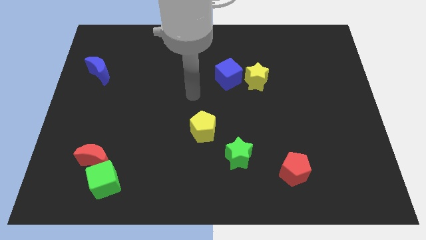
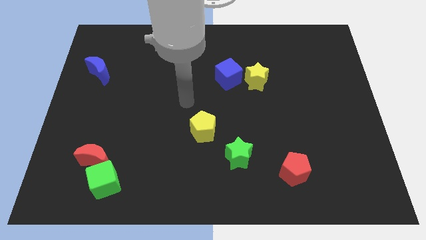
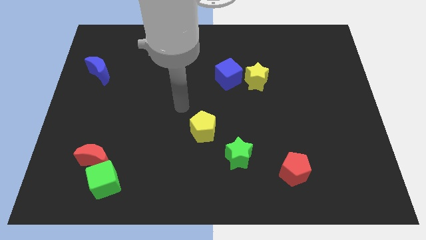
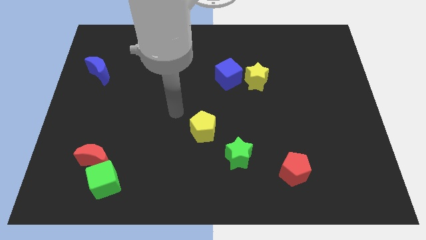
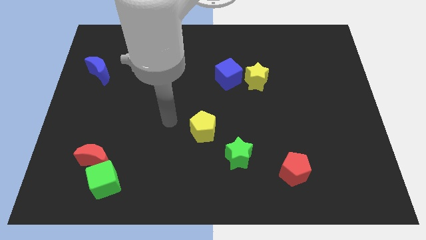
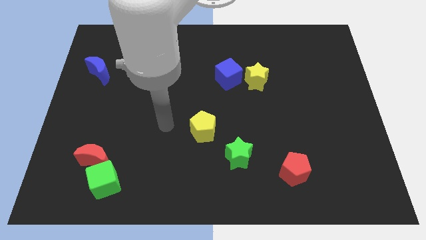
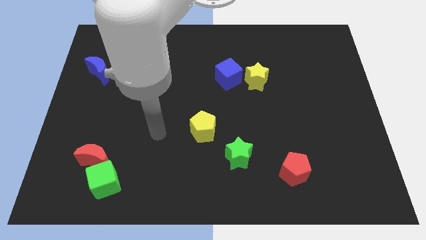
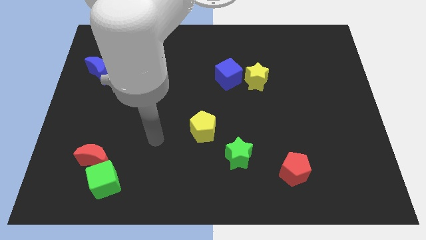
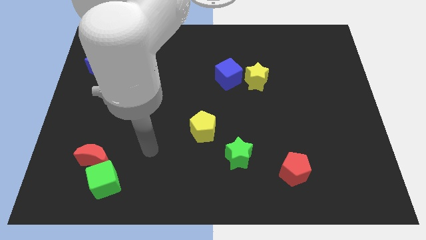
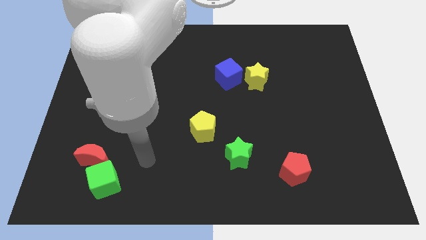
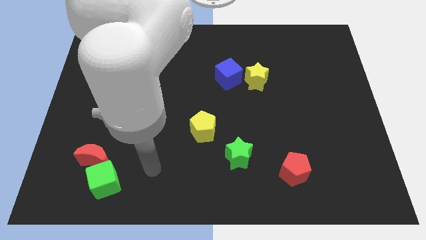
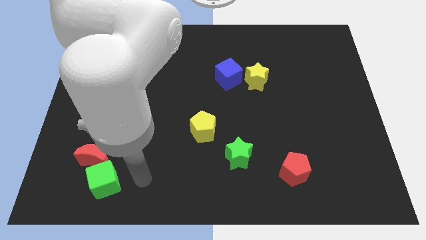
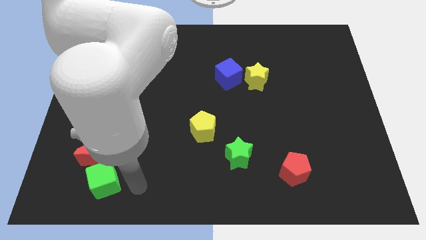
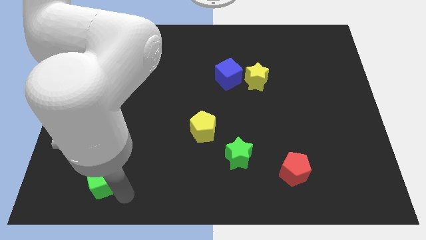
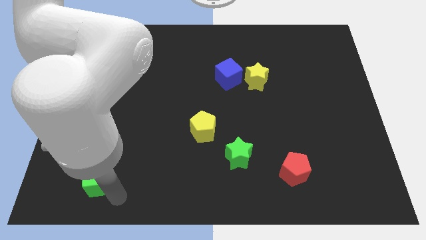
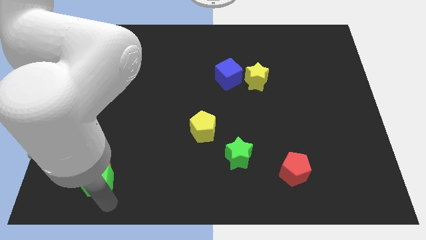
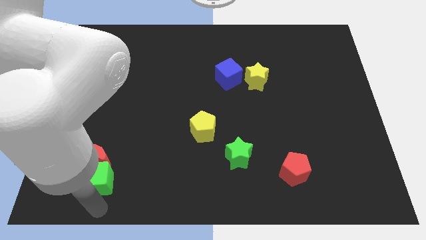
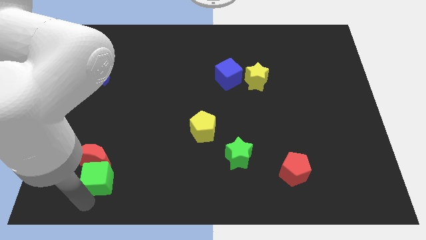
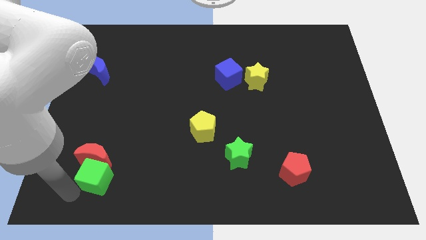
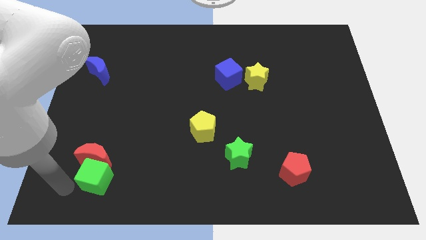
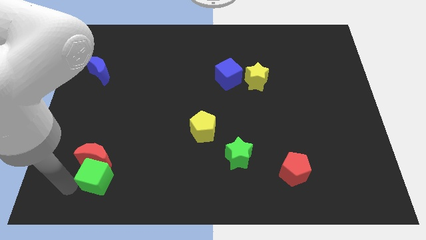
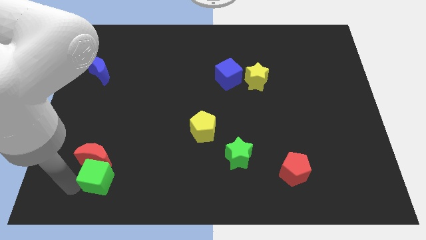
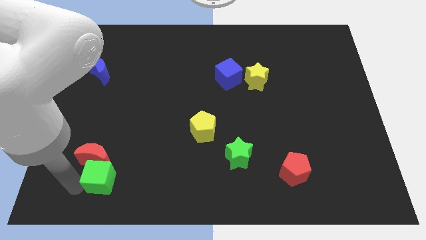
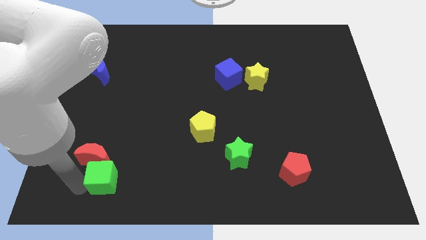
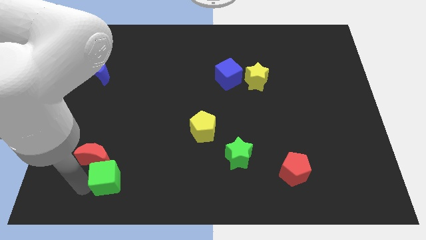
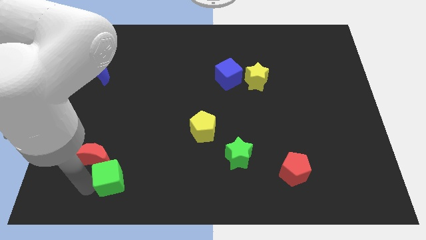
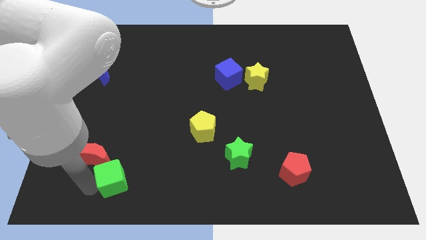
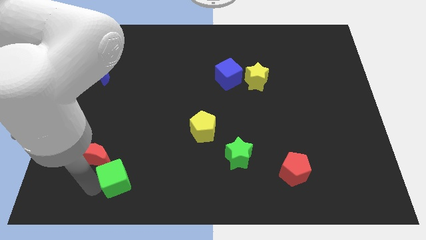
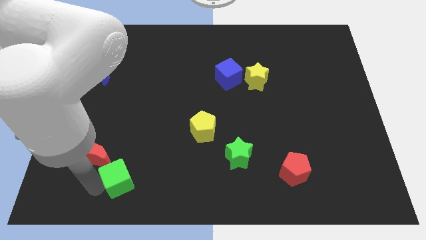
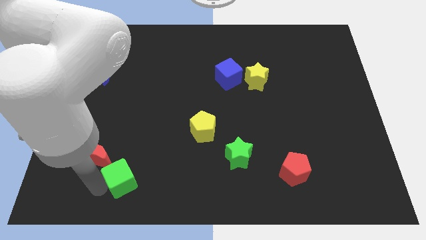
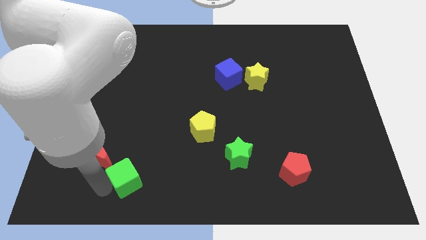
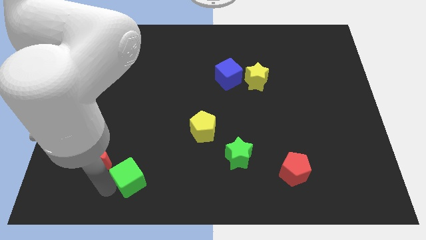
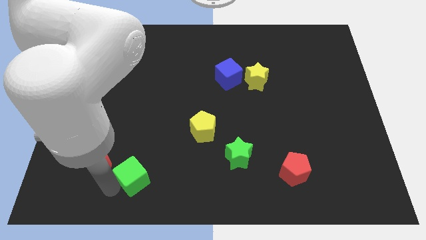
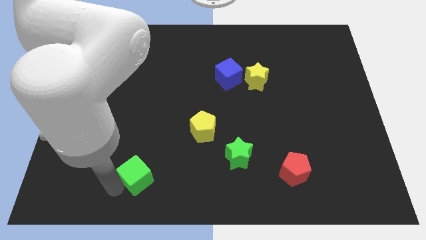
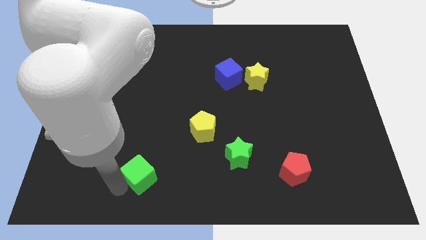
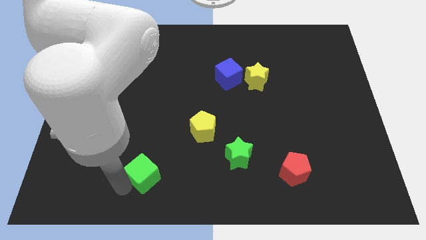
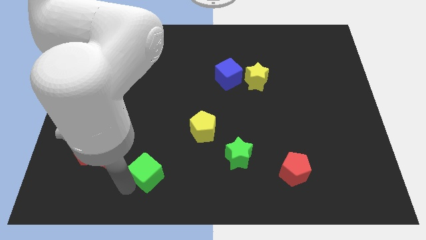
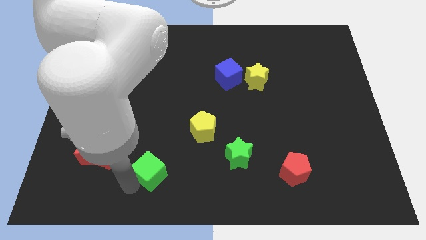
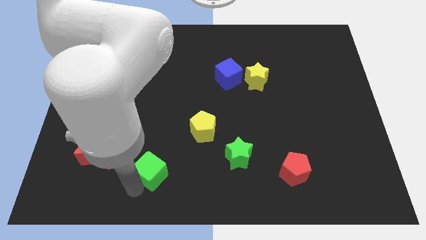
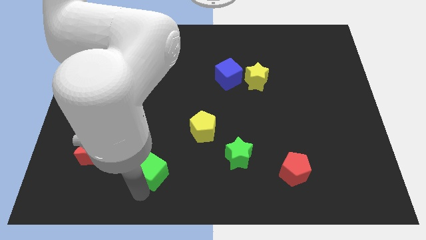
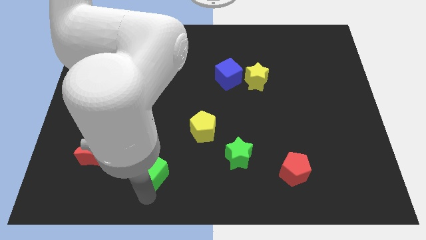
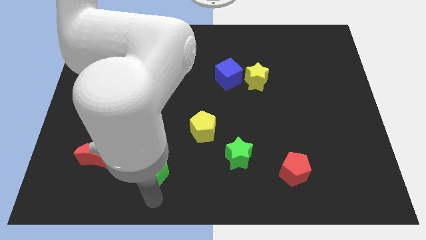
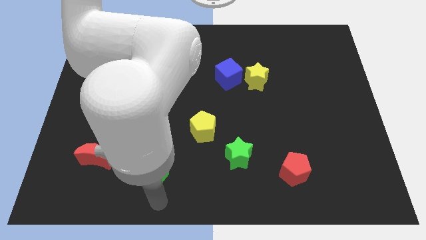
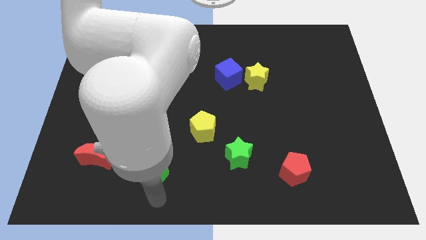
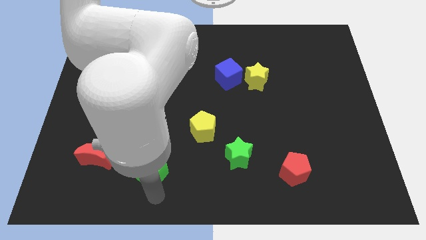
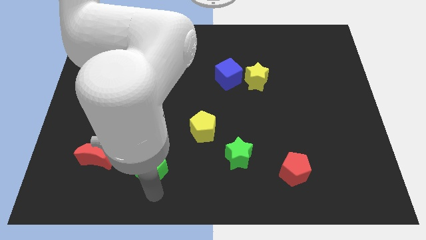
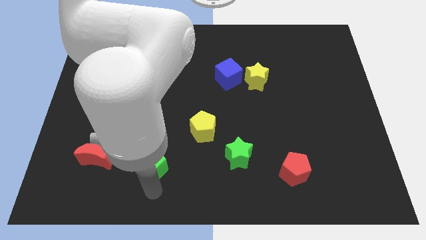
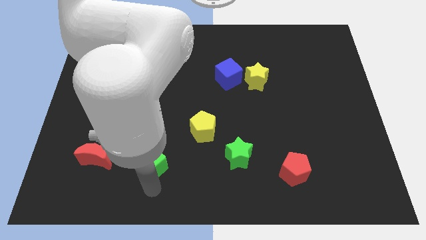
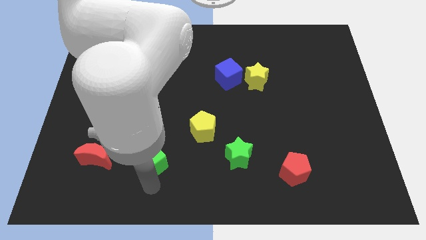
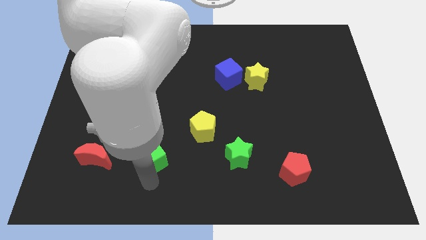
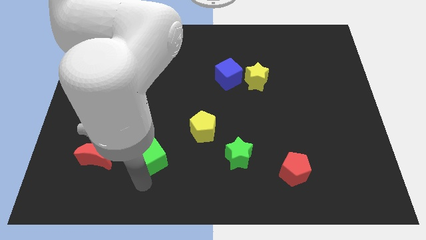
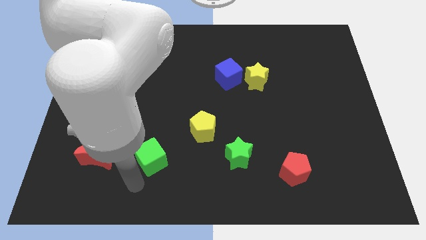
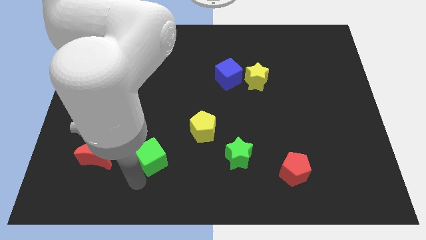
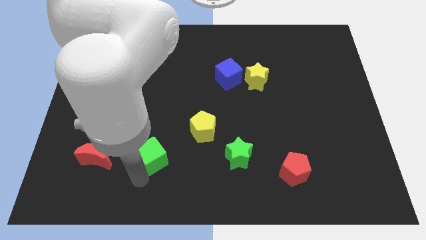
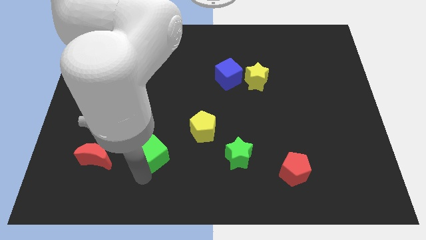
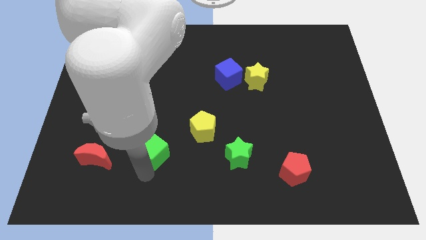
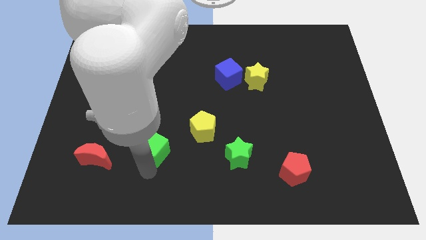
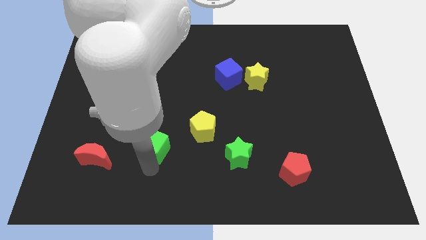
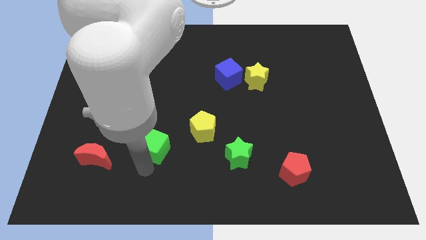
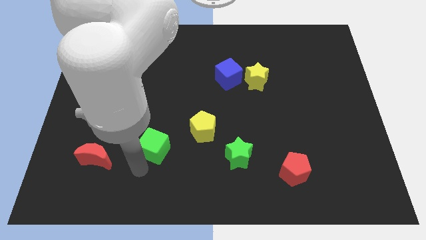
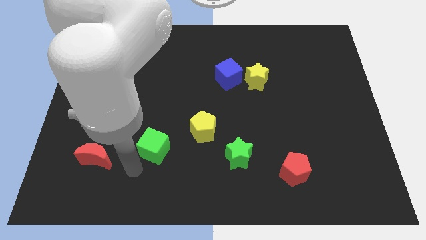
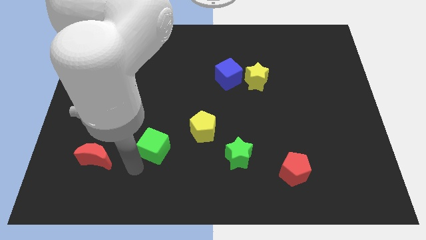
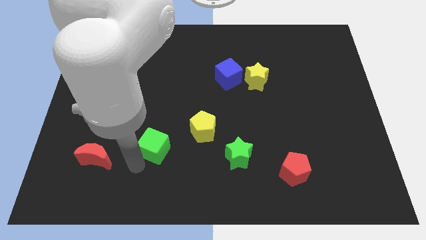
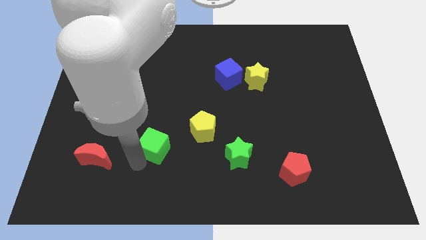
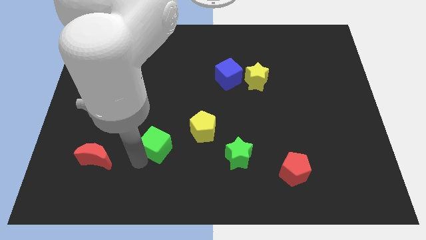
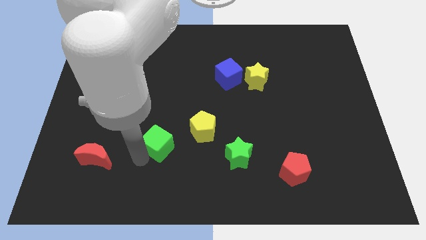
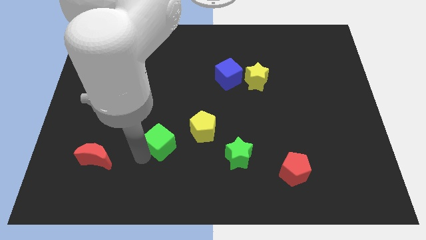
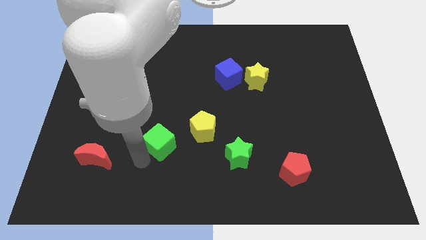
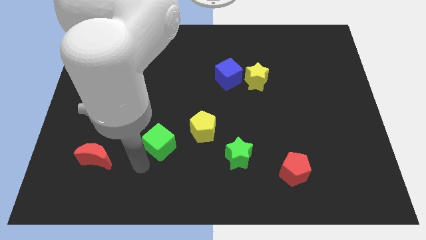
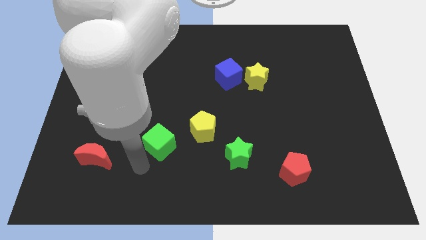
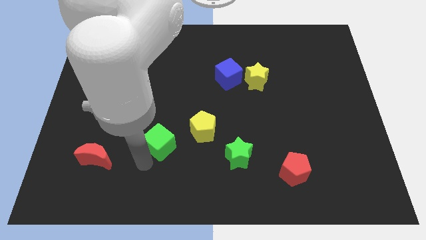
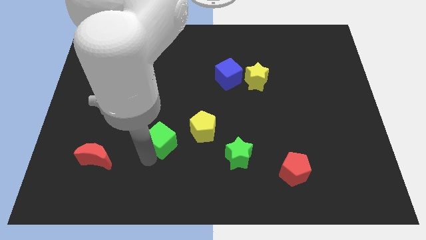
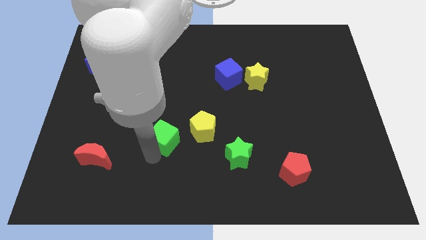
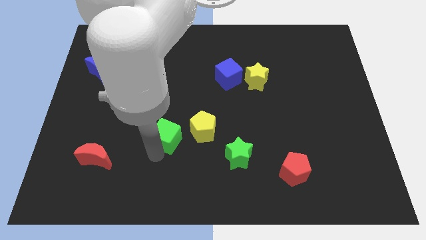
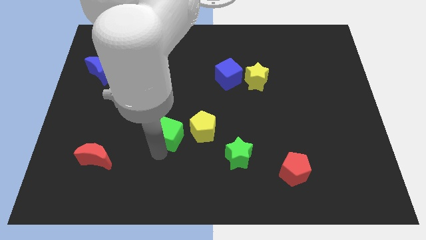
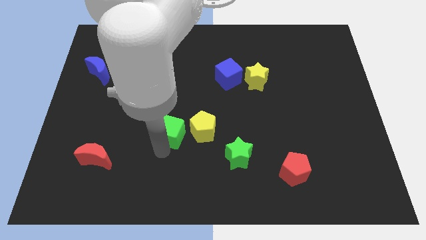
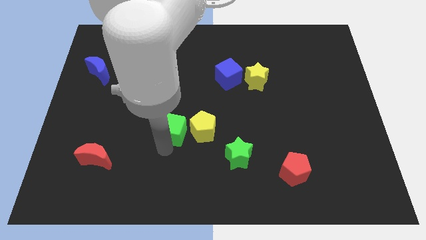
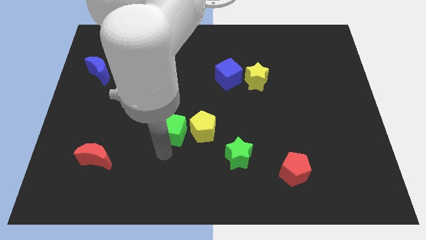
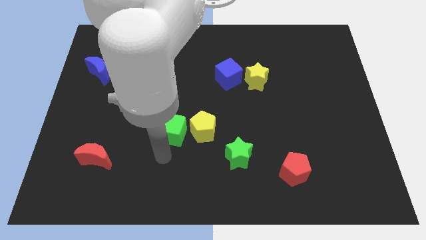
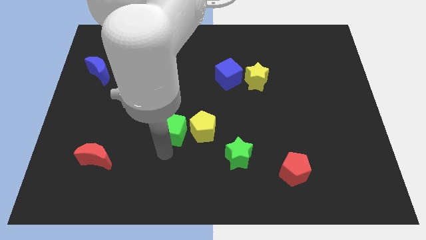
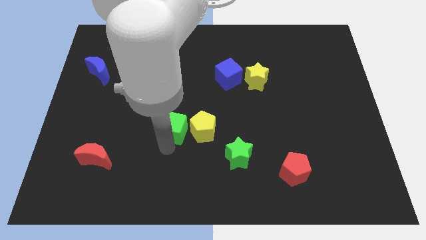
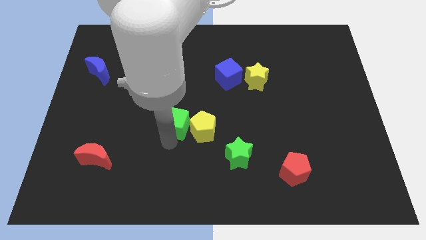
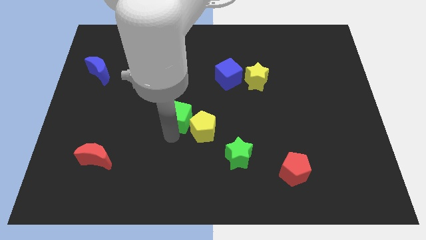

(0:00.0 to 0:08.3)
slide the green cube up and then to the right
